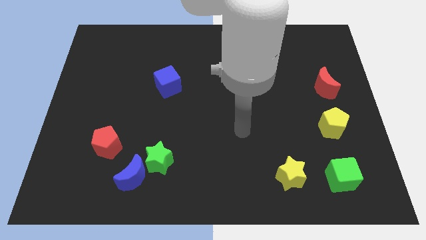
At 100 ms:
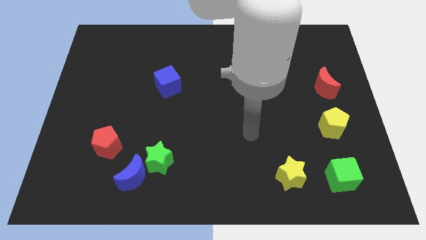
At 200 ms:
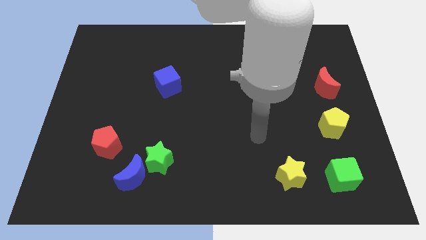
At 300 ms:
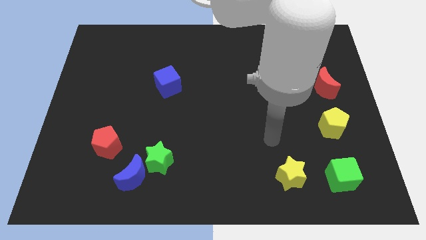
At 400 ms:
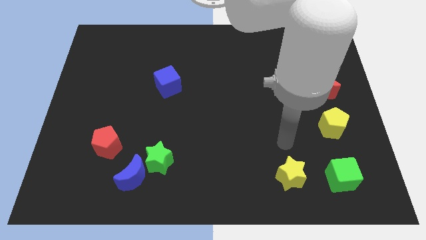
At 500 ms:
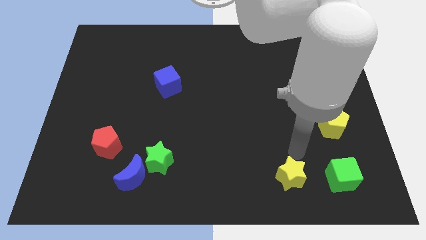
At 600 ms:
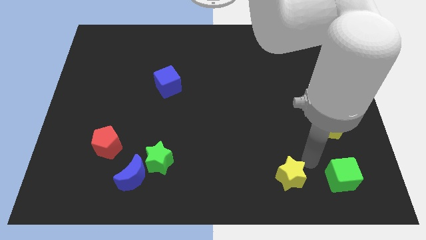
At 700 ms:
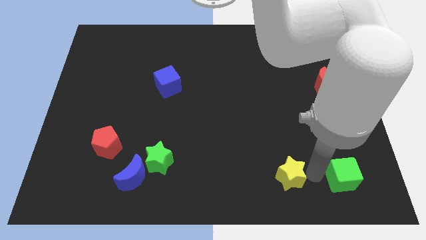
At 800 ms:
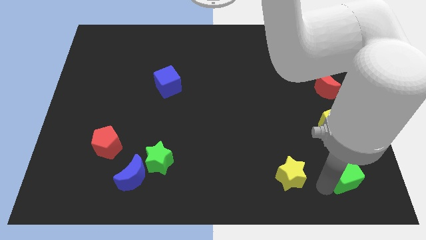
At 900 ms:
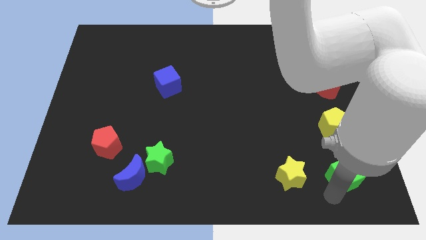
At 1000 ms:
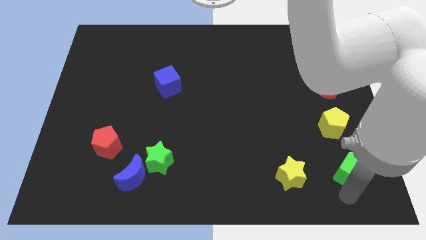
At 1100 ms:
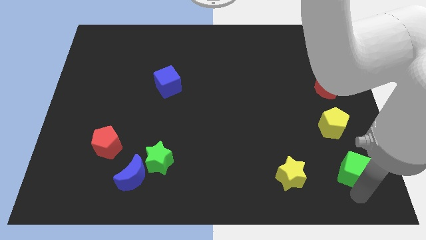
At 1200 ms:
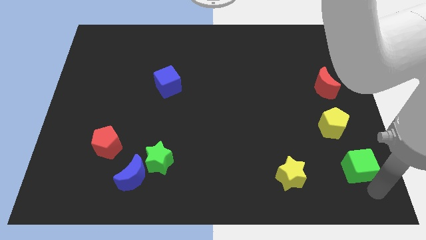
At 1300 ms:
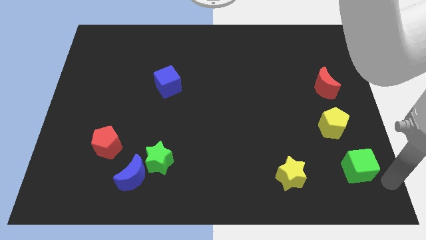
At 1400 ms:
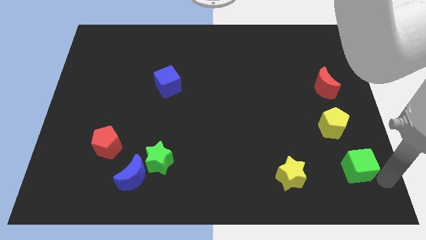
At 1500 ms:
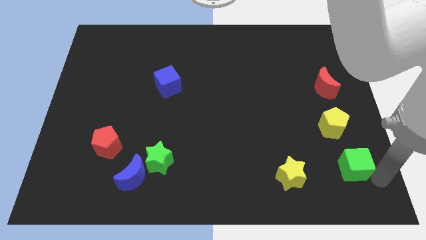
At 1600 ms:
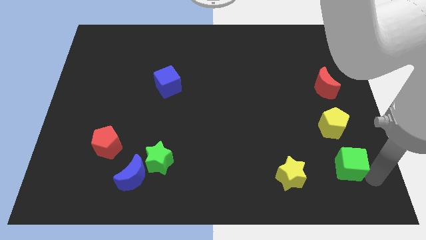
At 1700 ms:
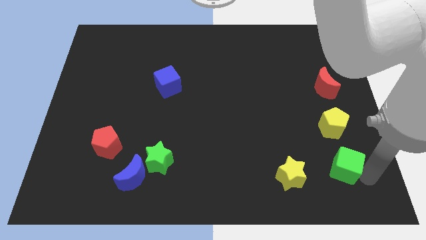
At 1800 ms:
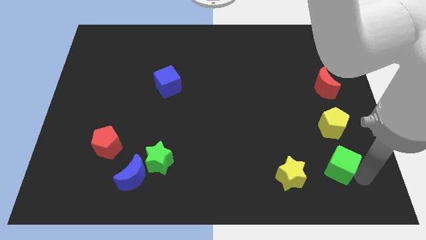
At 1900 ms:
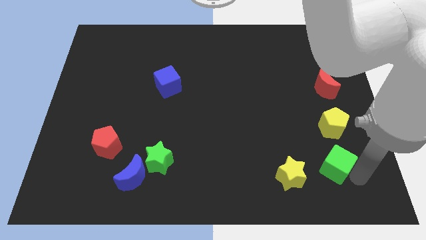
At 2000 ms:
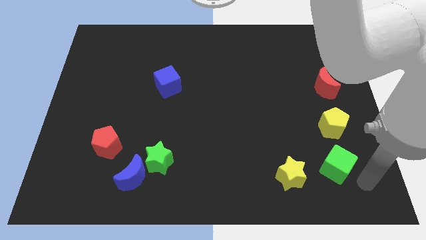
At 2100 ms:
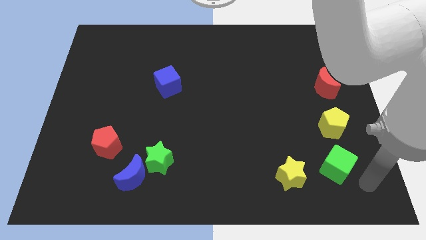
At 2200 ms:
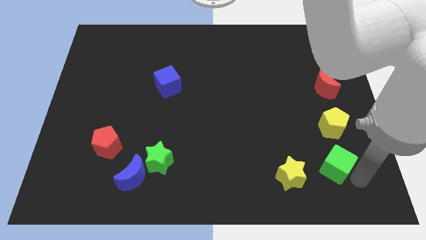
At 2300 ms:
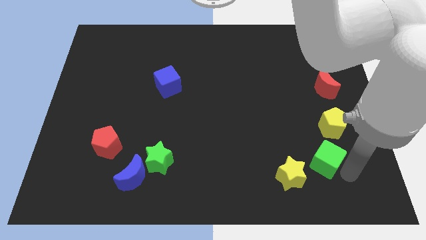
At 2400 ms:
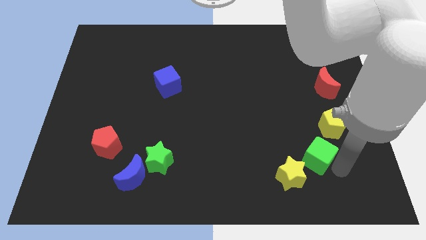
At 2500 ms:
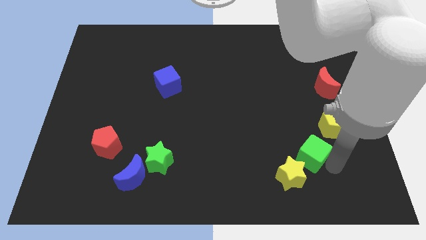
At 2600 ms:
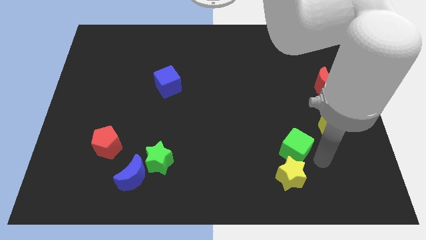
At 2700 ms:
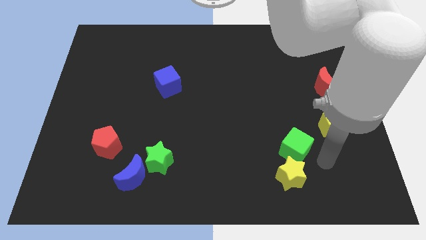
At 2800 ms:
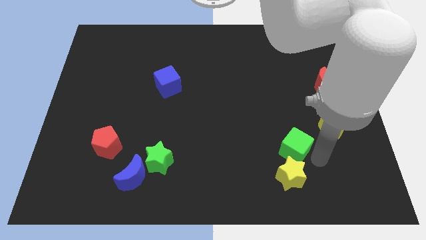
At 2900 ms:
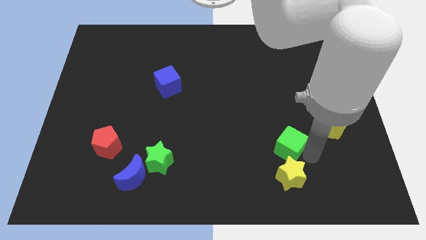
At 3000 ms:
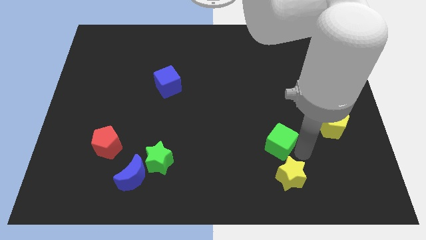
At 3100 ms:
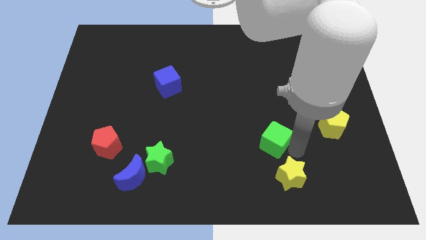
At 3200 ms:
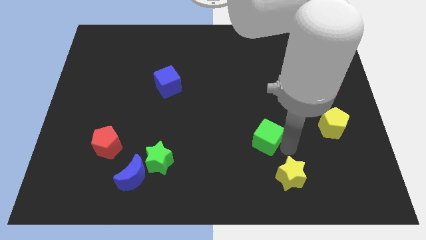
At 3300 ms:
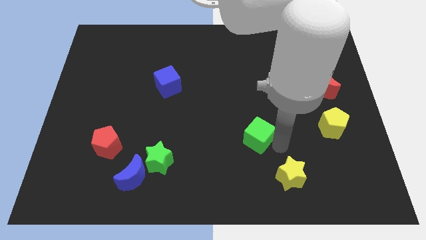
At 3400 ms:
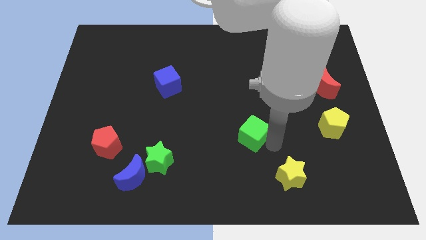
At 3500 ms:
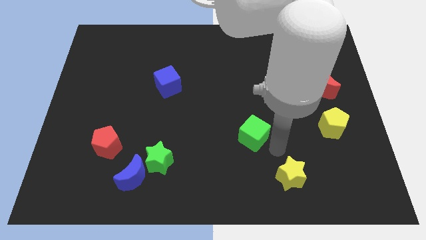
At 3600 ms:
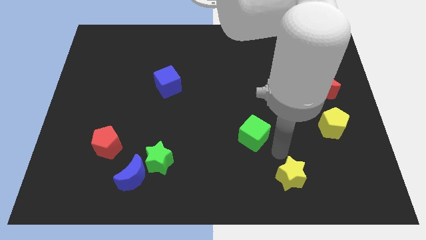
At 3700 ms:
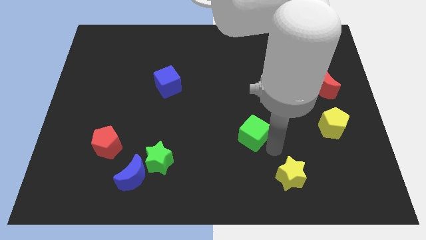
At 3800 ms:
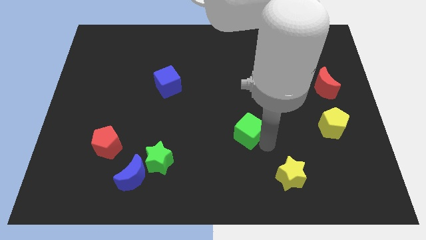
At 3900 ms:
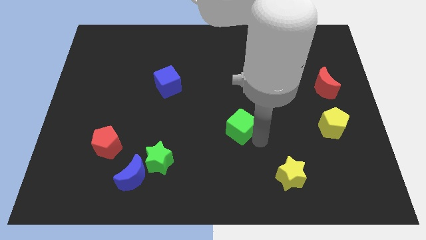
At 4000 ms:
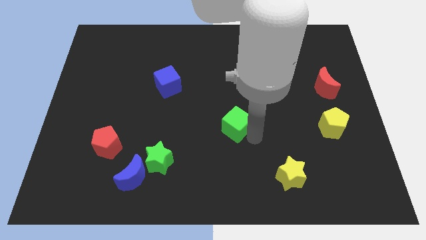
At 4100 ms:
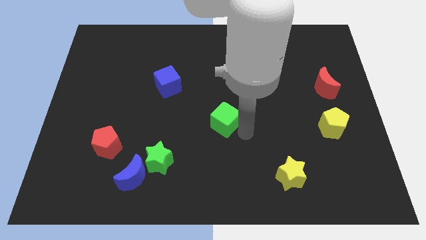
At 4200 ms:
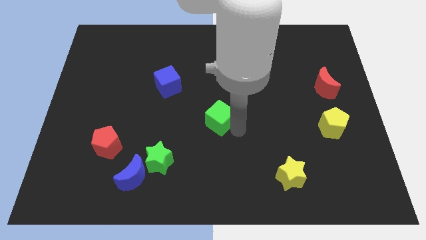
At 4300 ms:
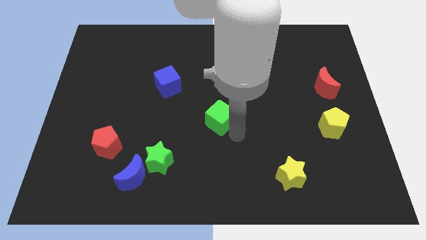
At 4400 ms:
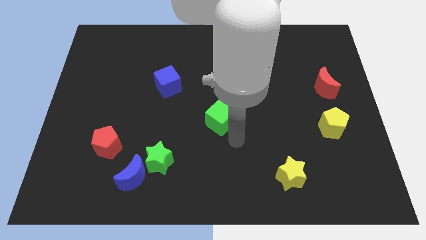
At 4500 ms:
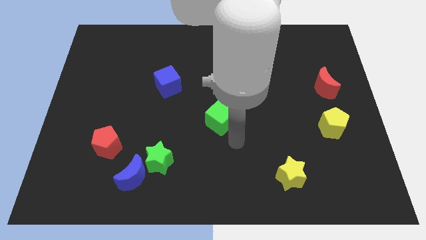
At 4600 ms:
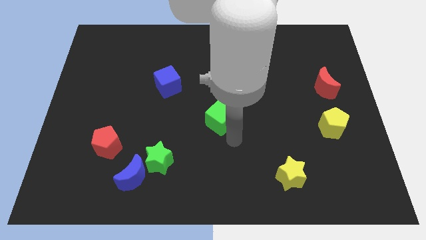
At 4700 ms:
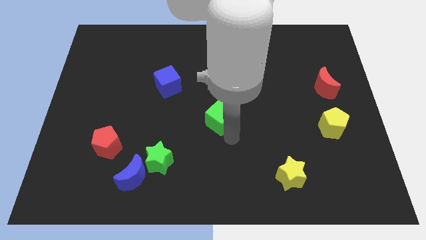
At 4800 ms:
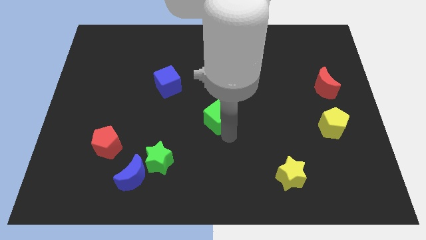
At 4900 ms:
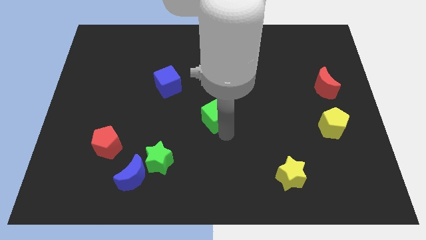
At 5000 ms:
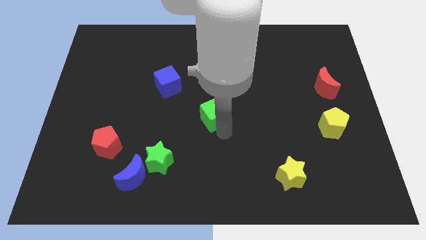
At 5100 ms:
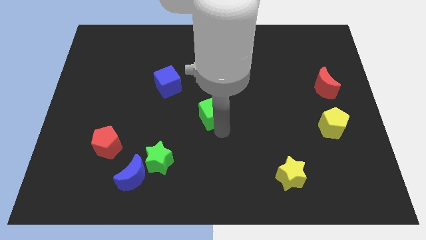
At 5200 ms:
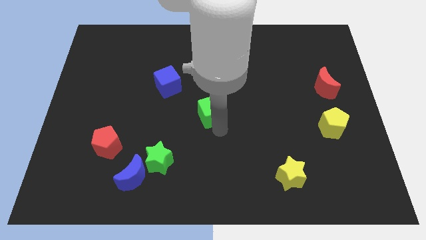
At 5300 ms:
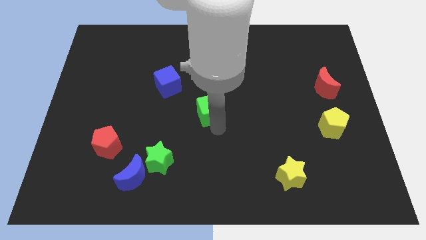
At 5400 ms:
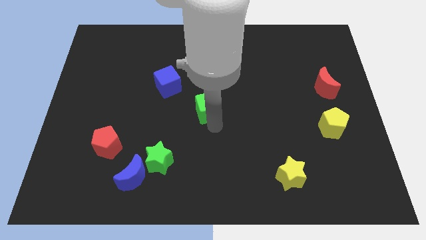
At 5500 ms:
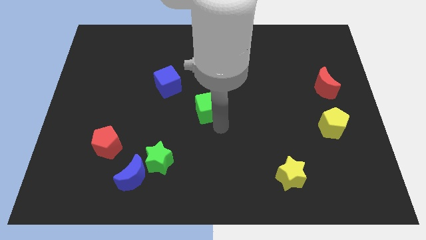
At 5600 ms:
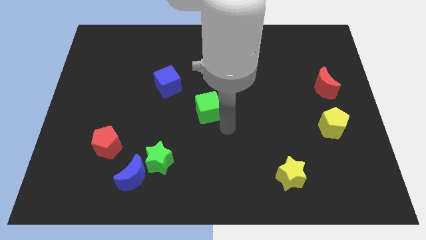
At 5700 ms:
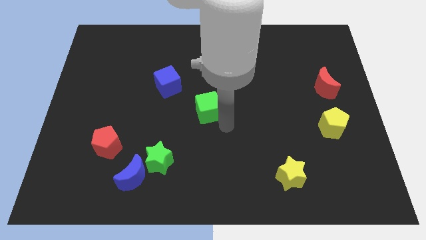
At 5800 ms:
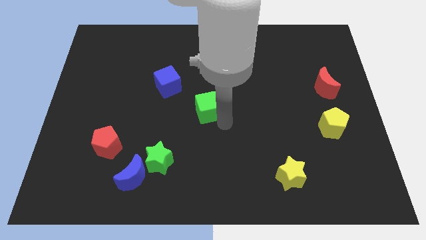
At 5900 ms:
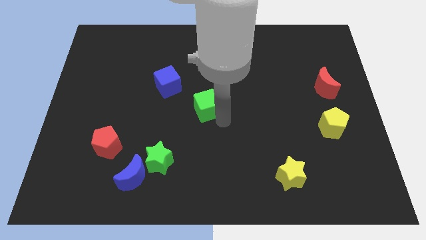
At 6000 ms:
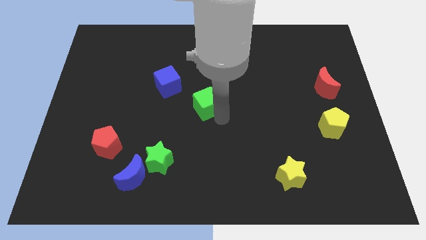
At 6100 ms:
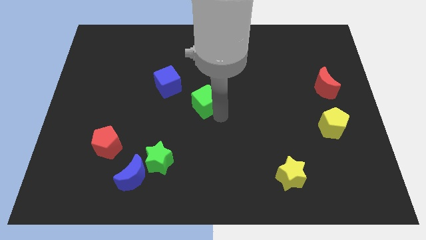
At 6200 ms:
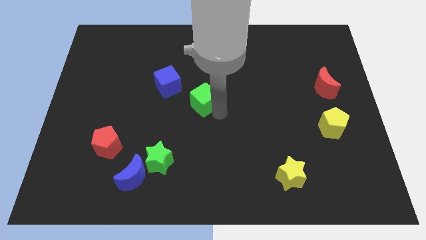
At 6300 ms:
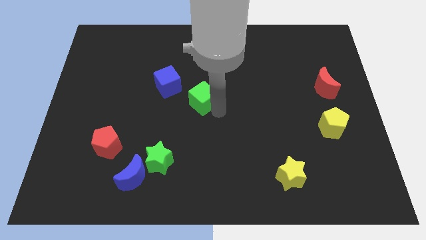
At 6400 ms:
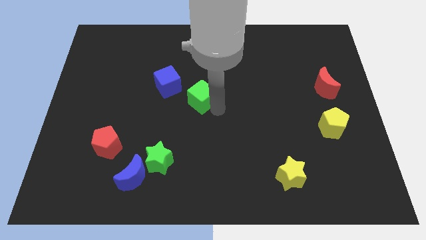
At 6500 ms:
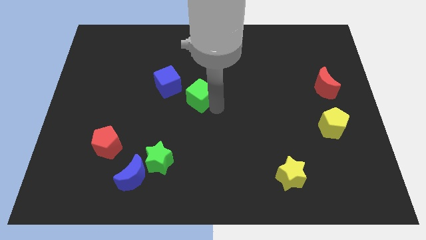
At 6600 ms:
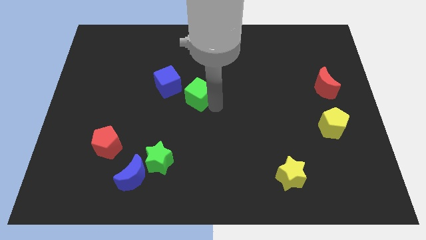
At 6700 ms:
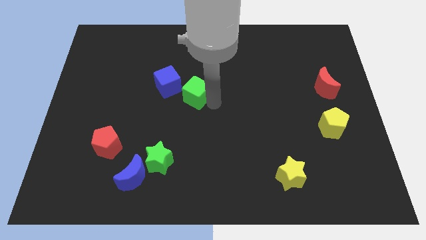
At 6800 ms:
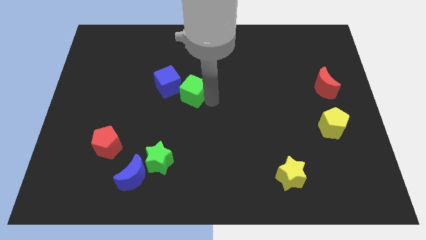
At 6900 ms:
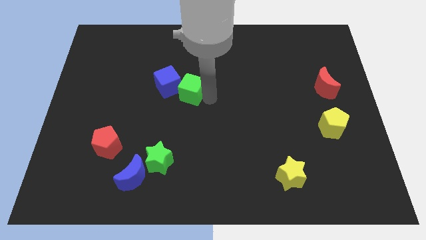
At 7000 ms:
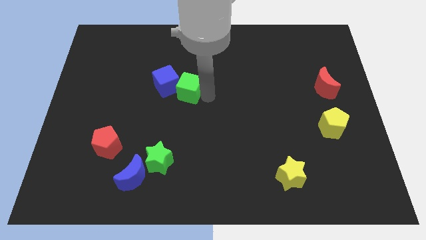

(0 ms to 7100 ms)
move the green cube close to the blue cube

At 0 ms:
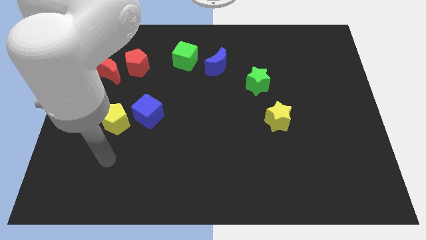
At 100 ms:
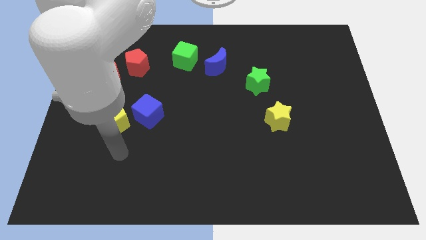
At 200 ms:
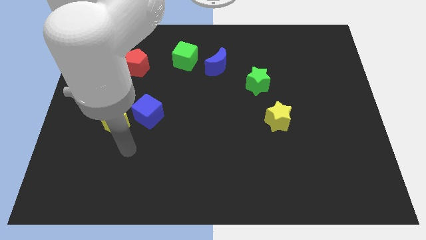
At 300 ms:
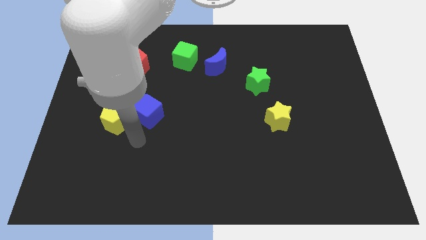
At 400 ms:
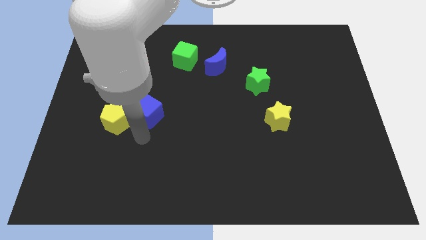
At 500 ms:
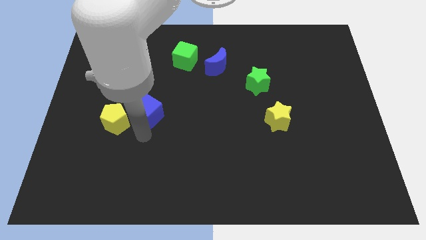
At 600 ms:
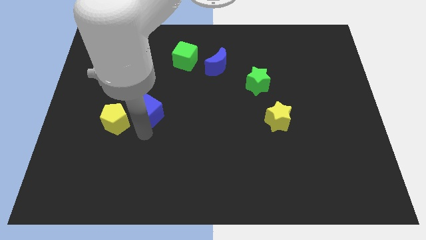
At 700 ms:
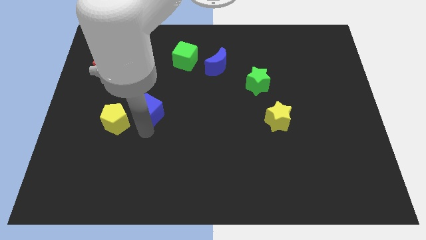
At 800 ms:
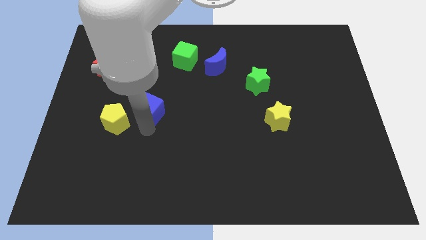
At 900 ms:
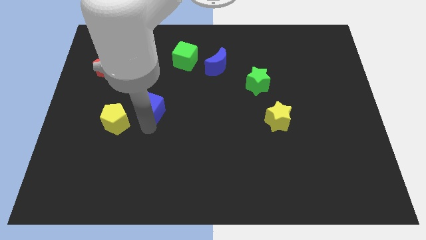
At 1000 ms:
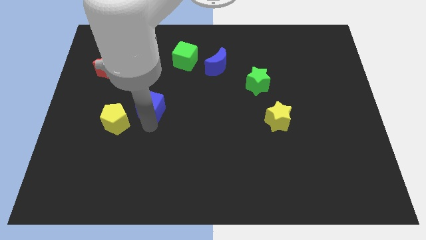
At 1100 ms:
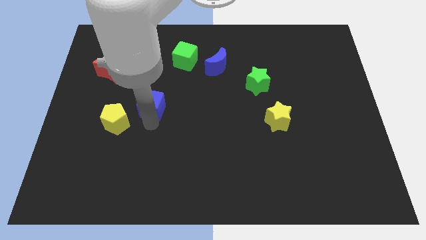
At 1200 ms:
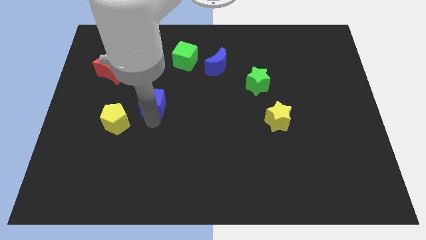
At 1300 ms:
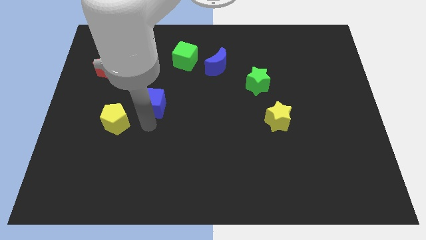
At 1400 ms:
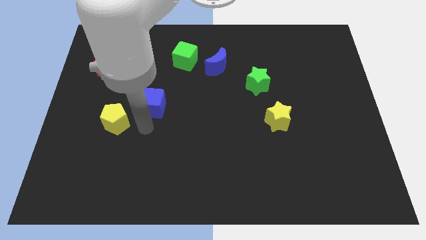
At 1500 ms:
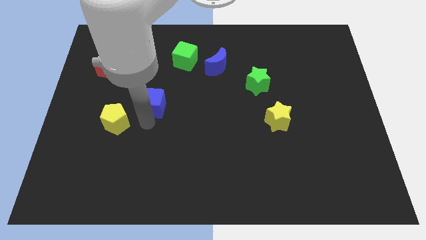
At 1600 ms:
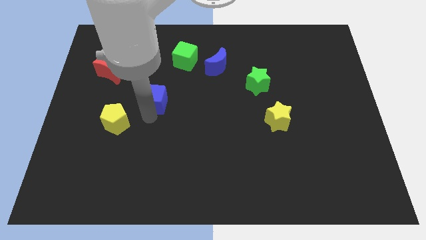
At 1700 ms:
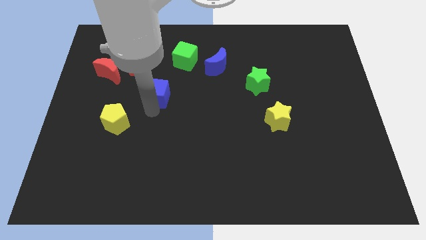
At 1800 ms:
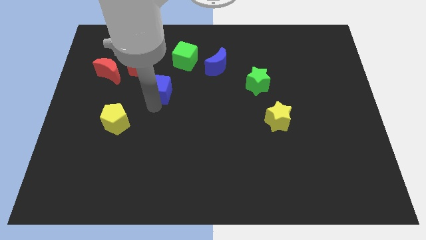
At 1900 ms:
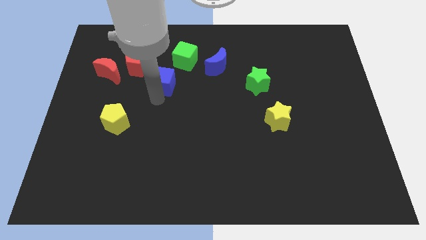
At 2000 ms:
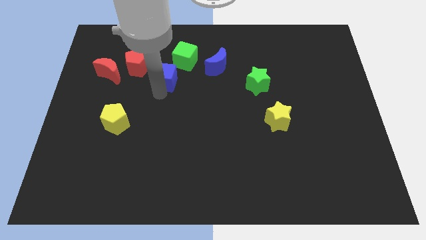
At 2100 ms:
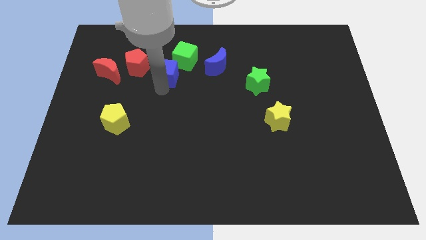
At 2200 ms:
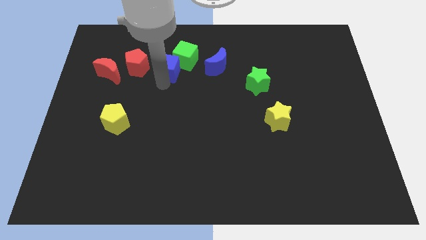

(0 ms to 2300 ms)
slide the blue cube to the green cube
